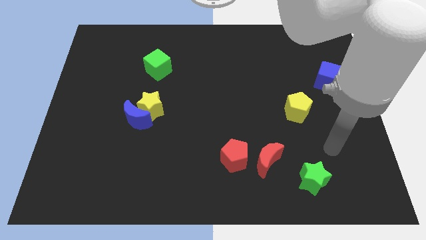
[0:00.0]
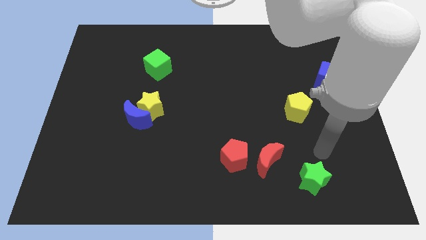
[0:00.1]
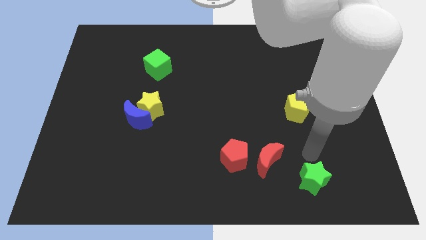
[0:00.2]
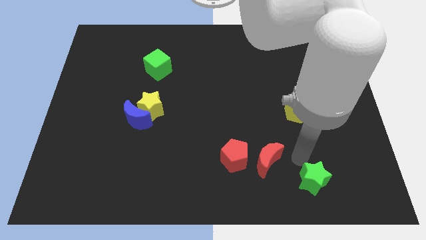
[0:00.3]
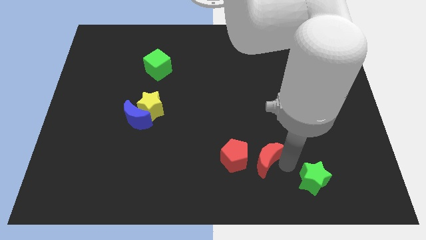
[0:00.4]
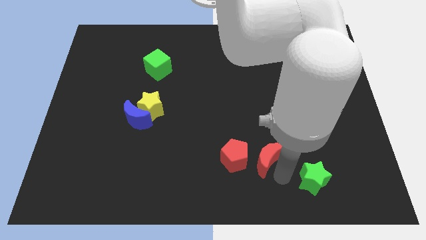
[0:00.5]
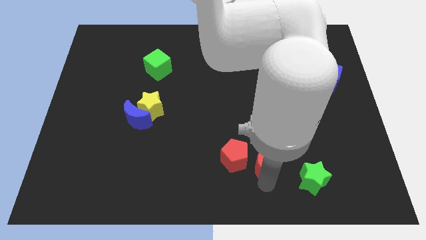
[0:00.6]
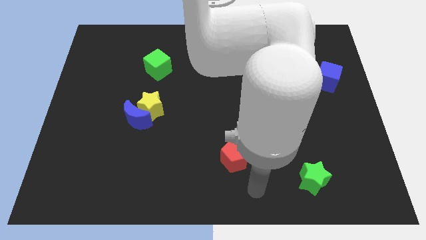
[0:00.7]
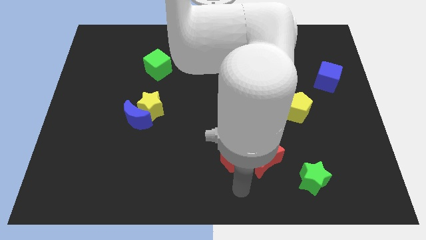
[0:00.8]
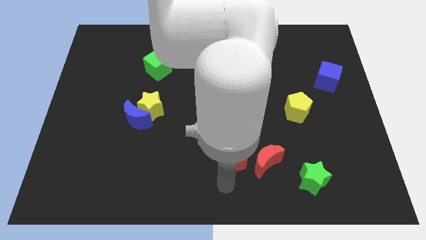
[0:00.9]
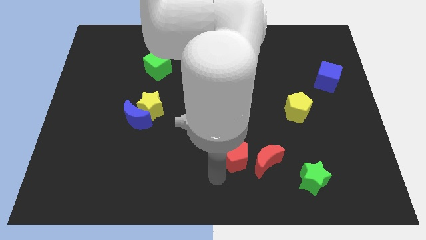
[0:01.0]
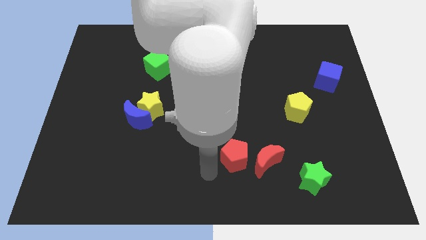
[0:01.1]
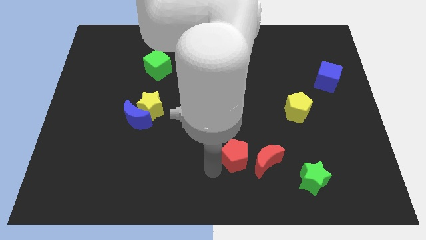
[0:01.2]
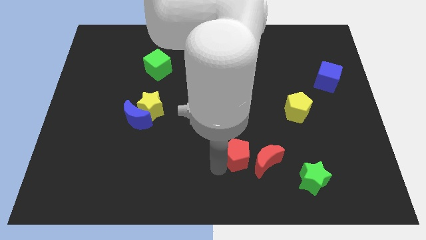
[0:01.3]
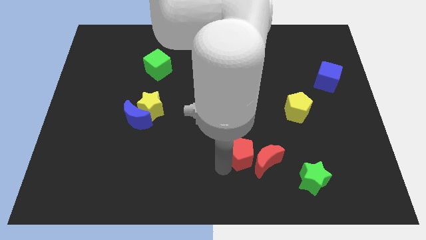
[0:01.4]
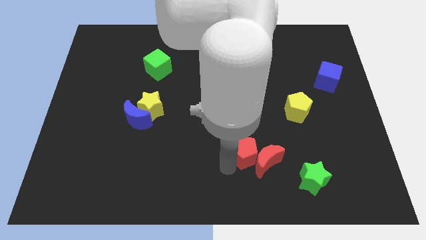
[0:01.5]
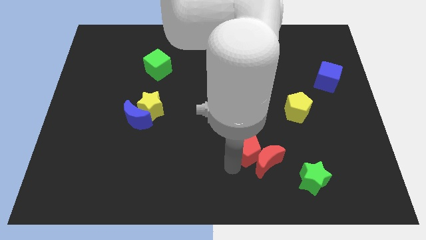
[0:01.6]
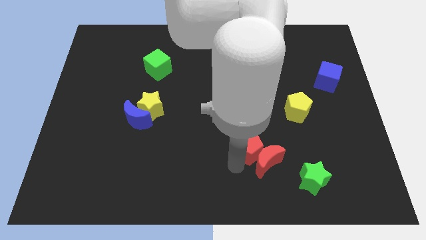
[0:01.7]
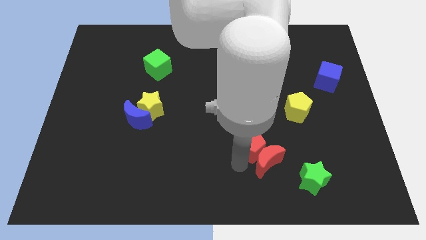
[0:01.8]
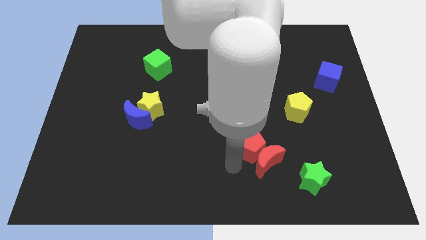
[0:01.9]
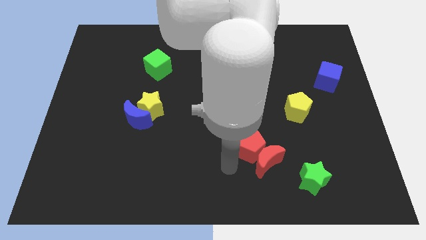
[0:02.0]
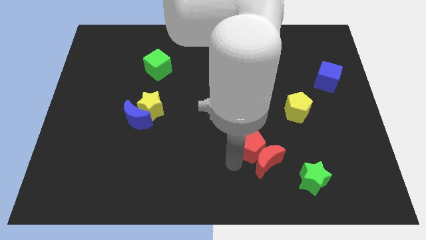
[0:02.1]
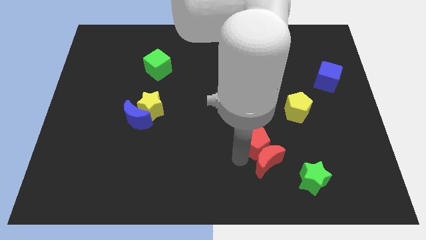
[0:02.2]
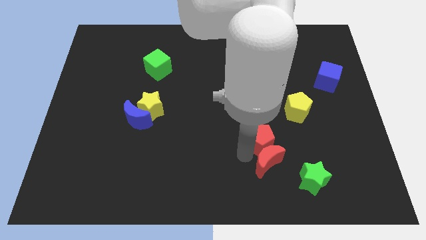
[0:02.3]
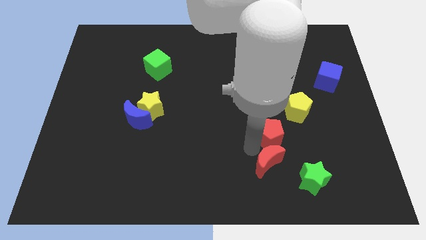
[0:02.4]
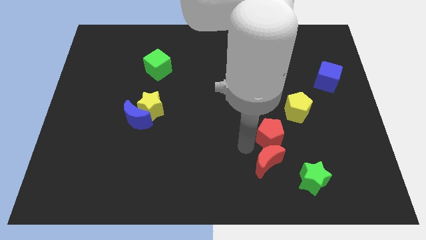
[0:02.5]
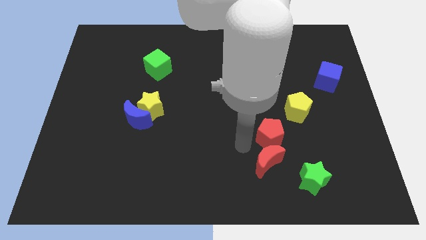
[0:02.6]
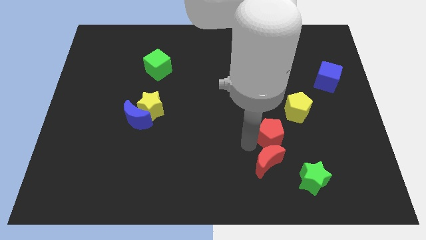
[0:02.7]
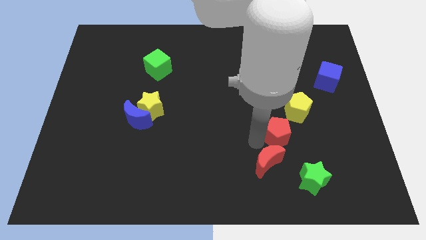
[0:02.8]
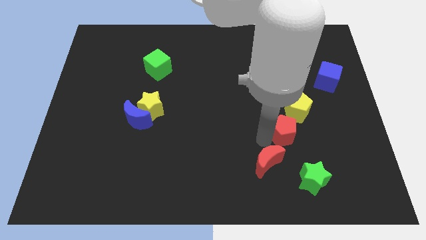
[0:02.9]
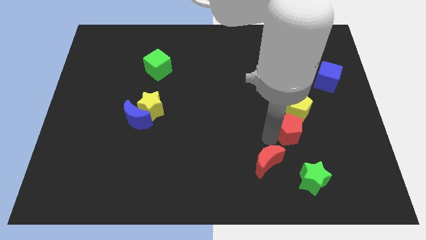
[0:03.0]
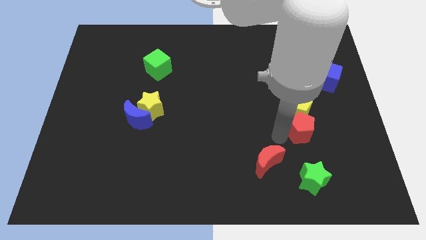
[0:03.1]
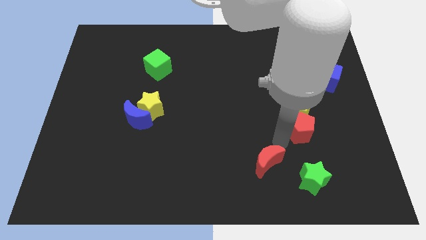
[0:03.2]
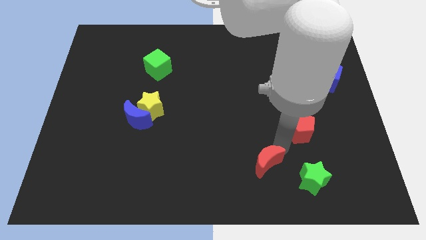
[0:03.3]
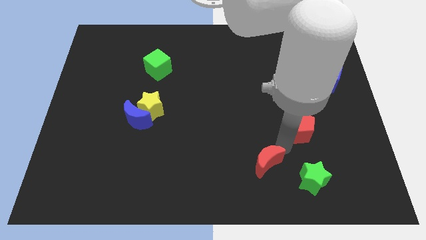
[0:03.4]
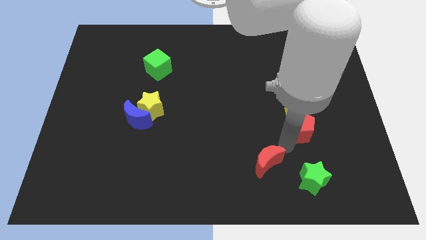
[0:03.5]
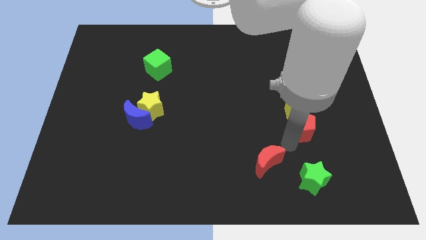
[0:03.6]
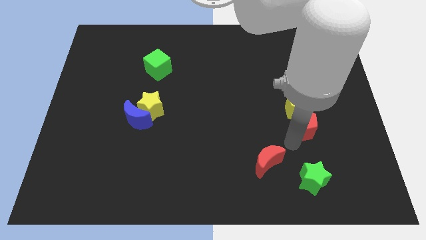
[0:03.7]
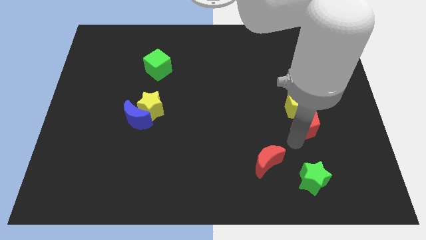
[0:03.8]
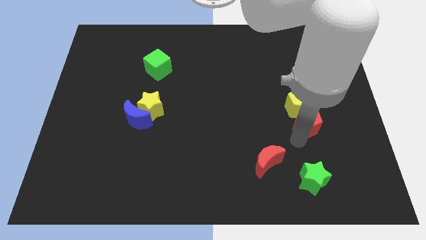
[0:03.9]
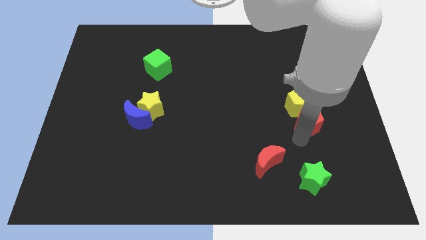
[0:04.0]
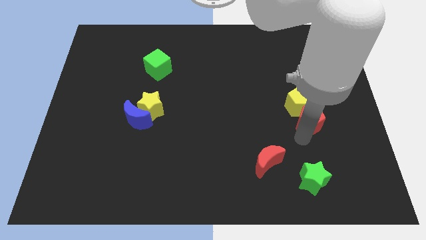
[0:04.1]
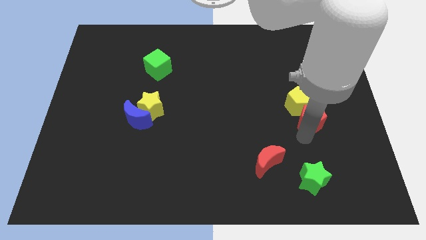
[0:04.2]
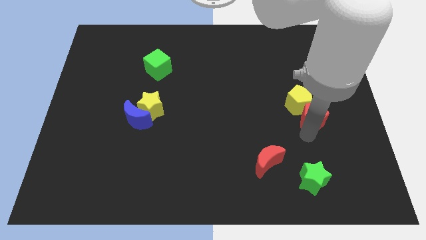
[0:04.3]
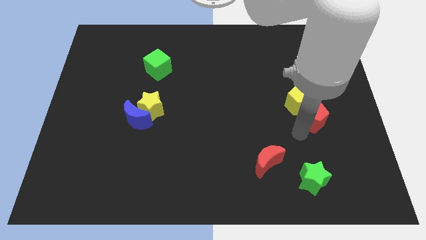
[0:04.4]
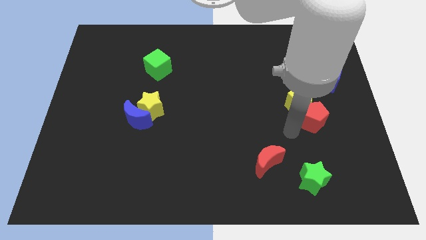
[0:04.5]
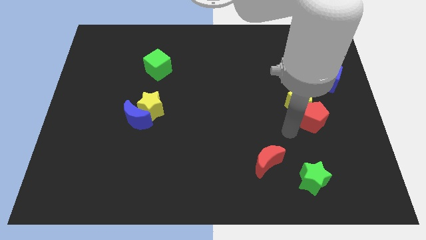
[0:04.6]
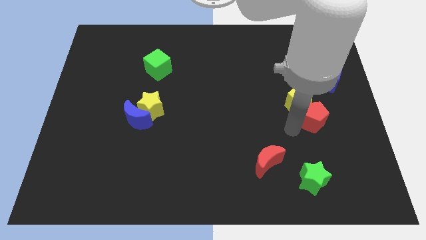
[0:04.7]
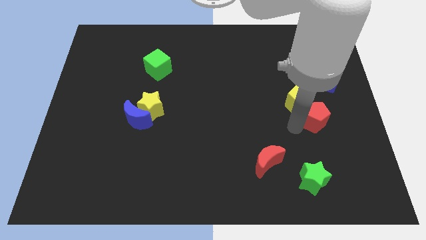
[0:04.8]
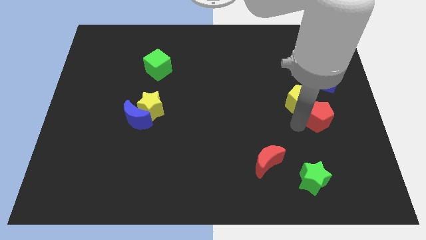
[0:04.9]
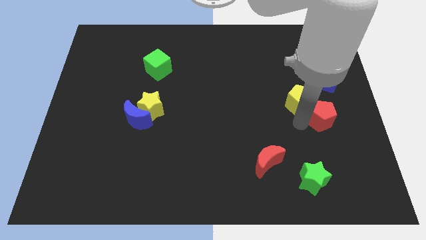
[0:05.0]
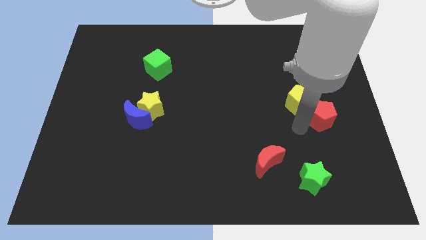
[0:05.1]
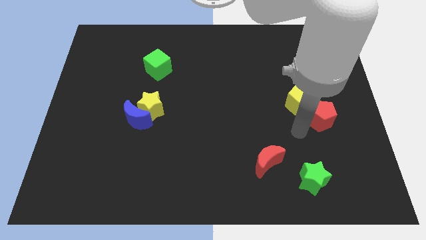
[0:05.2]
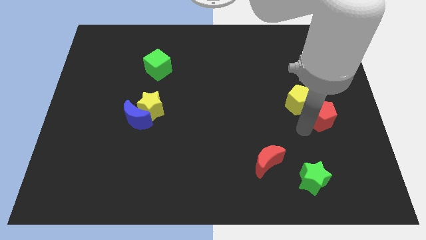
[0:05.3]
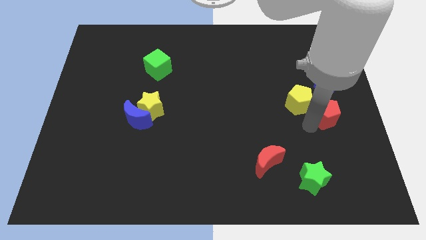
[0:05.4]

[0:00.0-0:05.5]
push the red pentagon to the center right

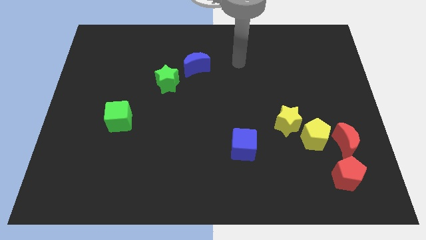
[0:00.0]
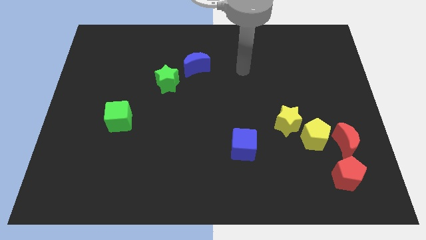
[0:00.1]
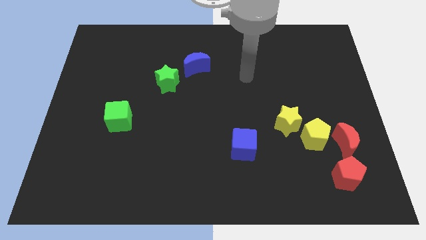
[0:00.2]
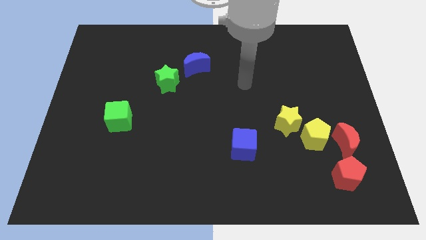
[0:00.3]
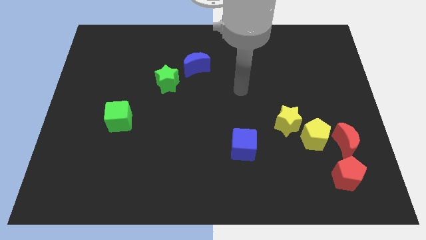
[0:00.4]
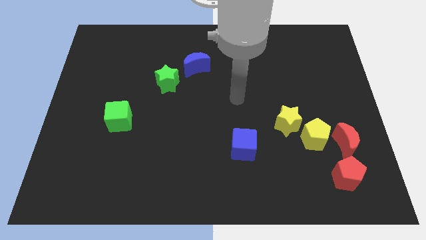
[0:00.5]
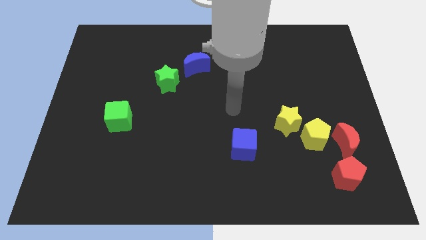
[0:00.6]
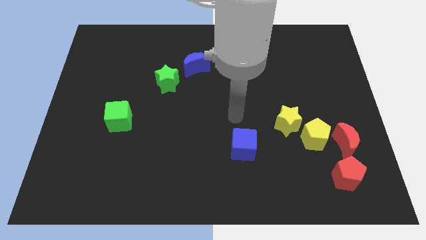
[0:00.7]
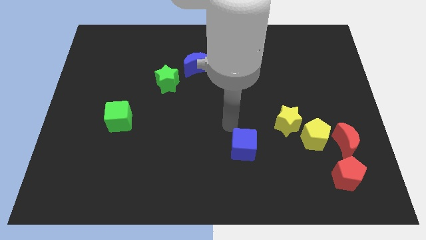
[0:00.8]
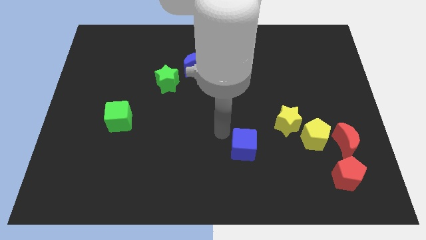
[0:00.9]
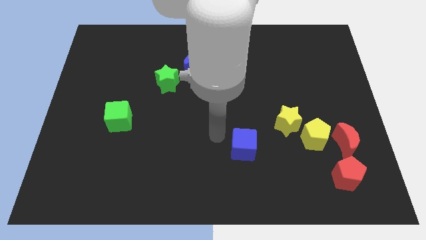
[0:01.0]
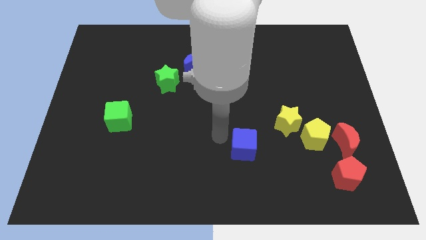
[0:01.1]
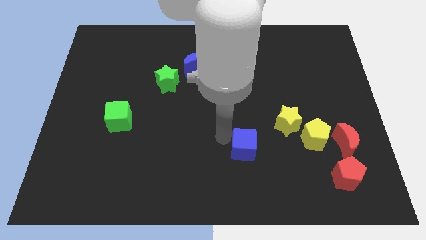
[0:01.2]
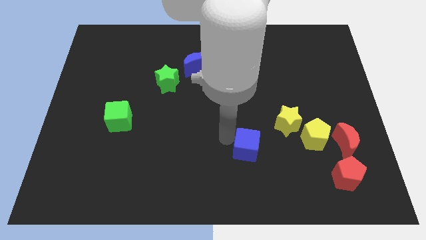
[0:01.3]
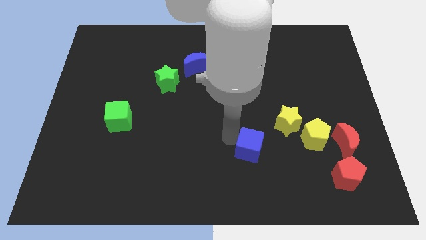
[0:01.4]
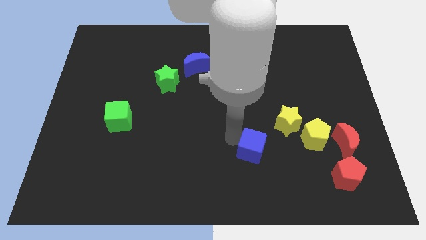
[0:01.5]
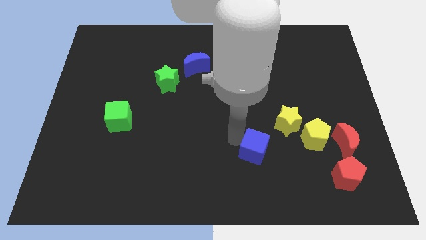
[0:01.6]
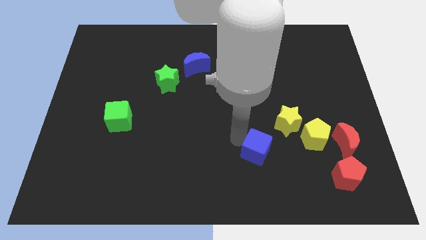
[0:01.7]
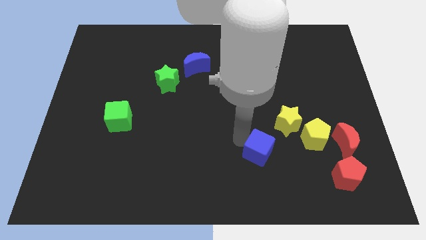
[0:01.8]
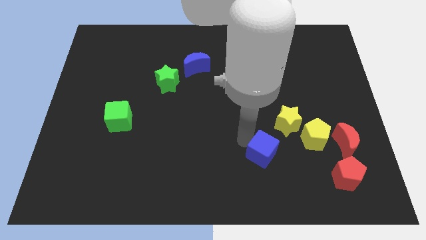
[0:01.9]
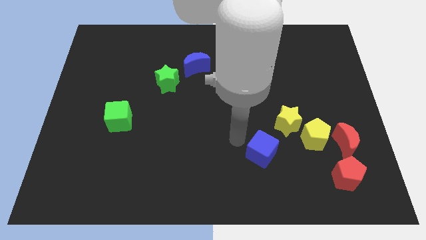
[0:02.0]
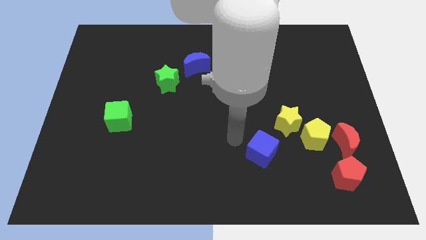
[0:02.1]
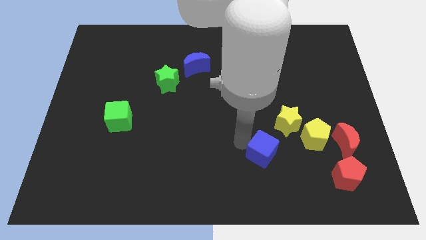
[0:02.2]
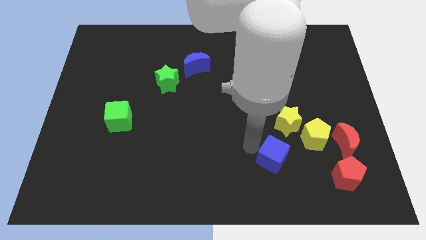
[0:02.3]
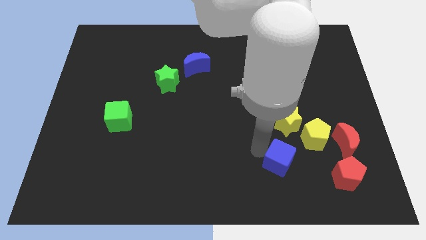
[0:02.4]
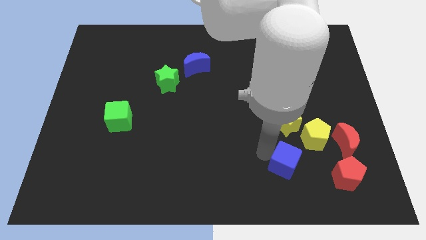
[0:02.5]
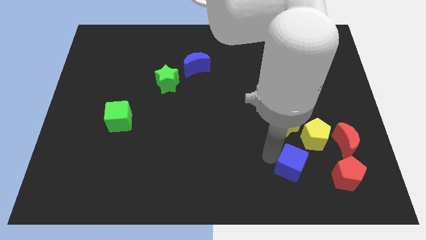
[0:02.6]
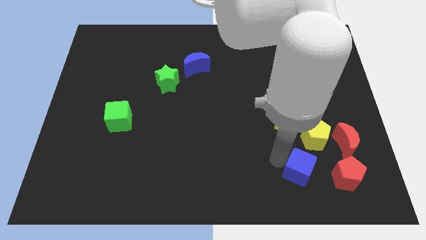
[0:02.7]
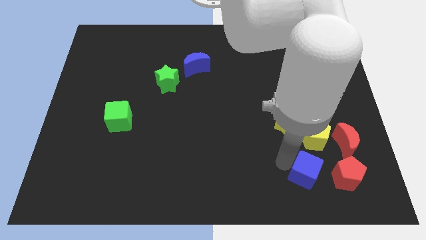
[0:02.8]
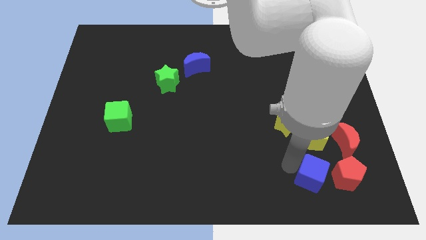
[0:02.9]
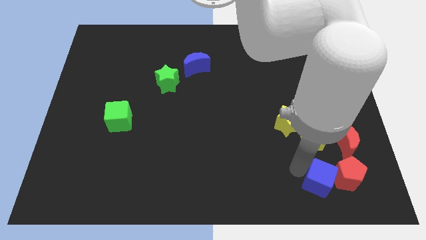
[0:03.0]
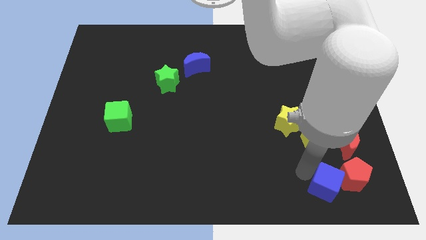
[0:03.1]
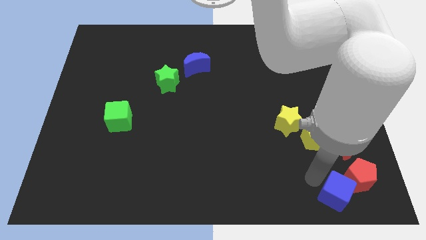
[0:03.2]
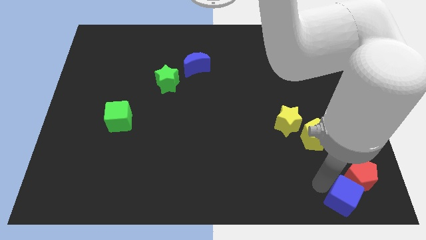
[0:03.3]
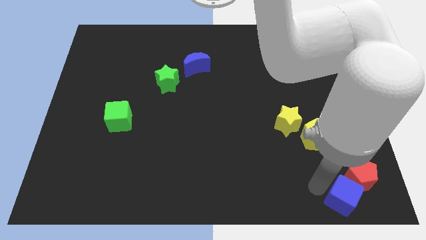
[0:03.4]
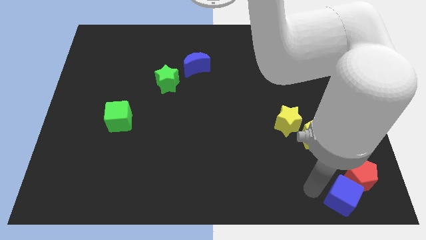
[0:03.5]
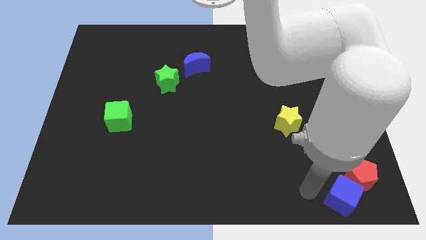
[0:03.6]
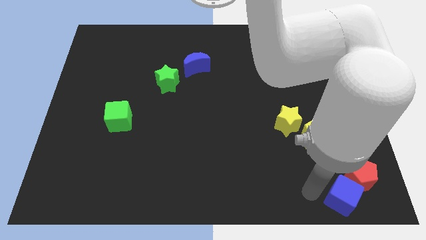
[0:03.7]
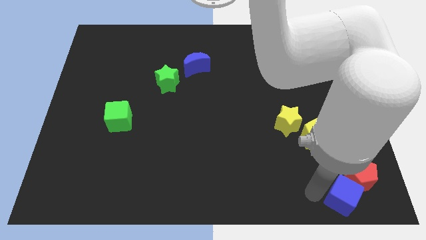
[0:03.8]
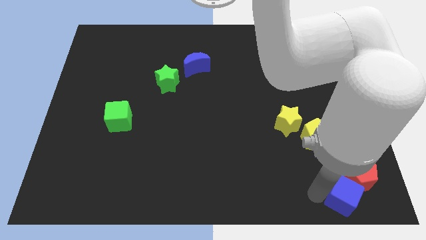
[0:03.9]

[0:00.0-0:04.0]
move the blue cube to the bottom right corner
